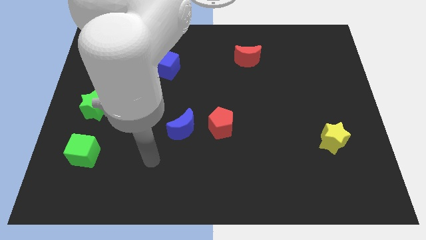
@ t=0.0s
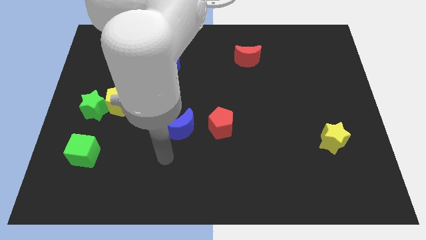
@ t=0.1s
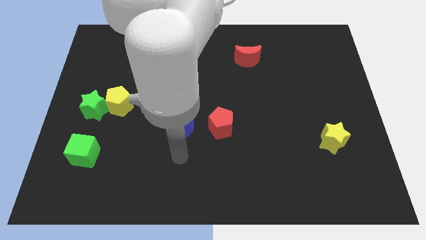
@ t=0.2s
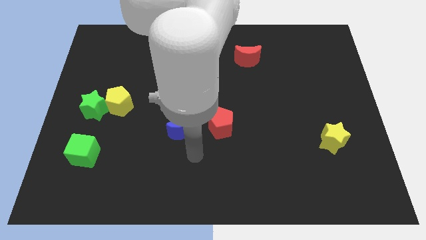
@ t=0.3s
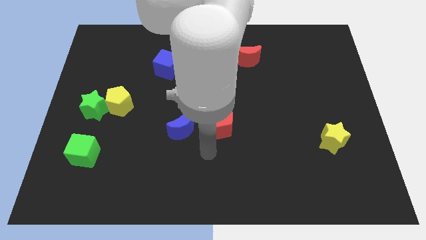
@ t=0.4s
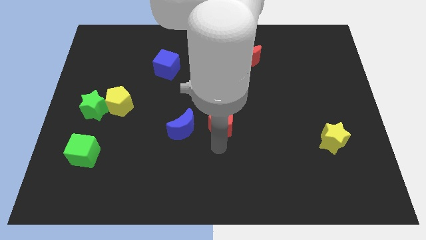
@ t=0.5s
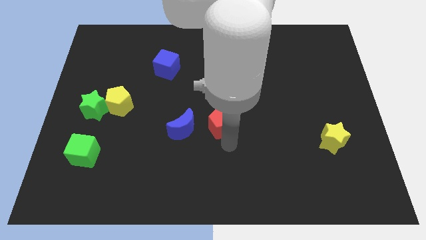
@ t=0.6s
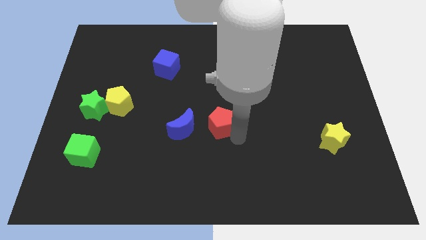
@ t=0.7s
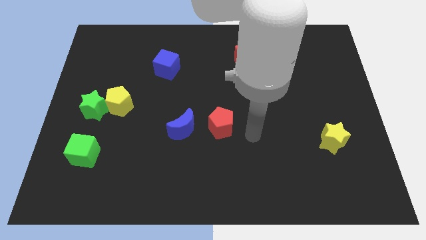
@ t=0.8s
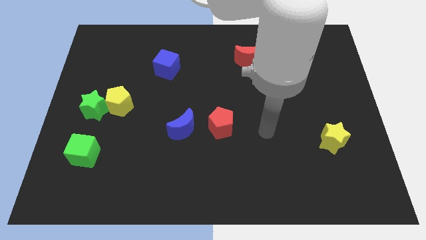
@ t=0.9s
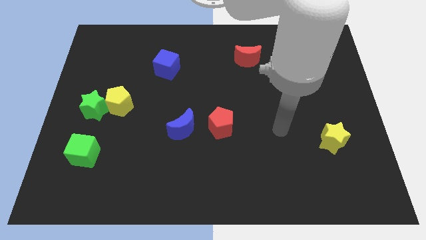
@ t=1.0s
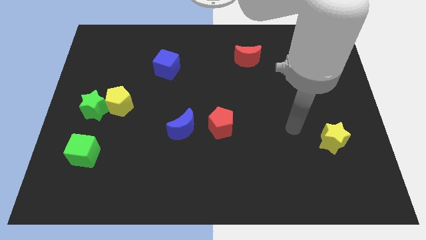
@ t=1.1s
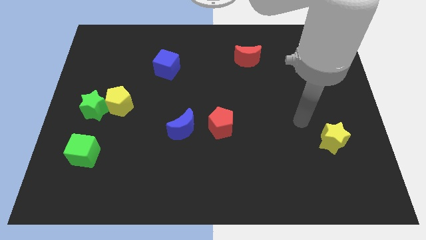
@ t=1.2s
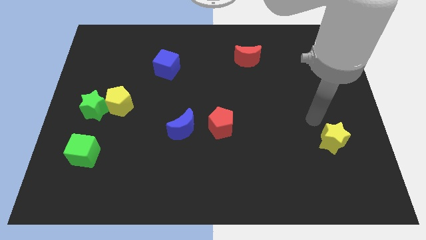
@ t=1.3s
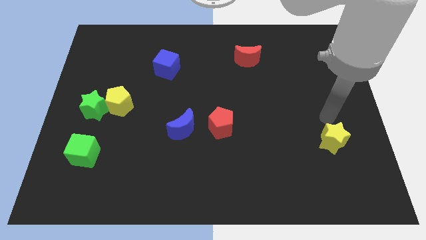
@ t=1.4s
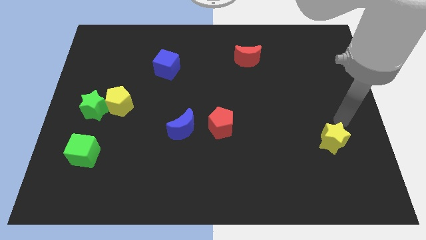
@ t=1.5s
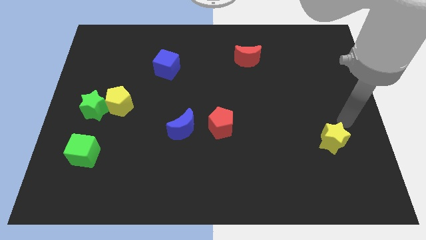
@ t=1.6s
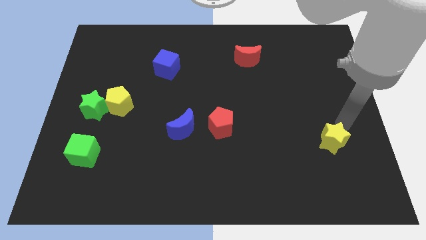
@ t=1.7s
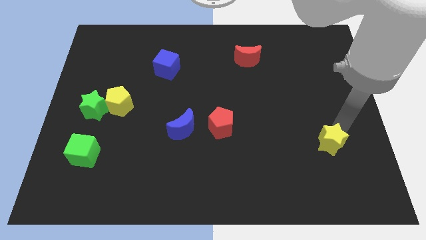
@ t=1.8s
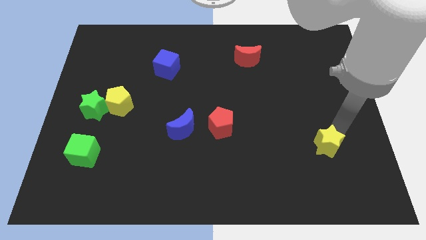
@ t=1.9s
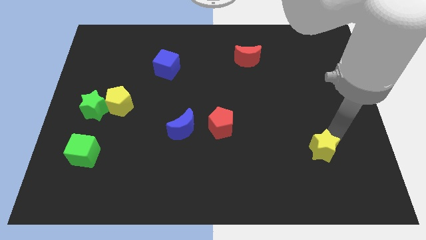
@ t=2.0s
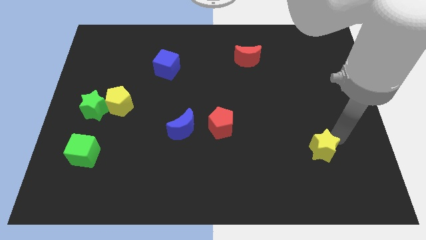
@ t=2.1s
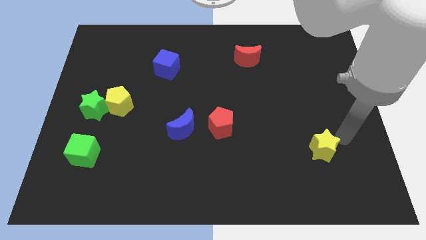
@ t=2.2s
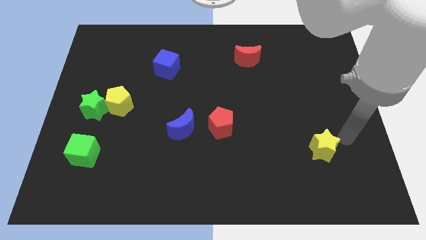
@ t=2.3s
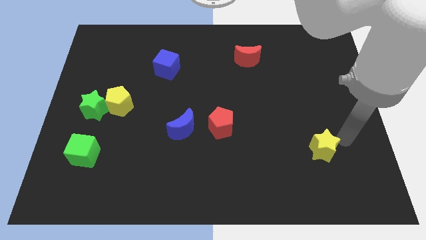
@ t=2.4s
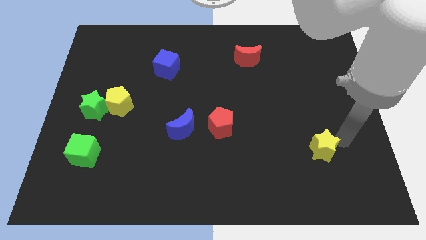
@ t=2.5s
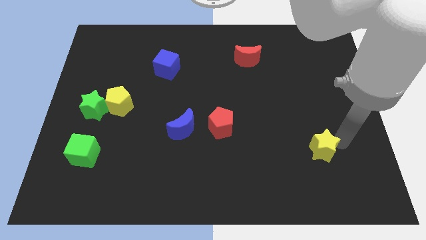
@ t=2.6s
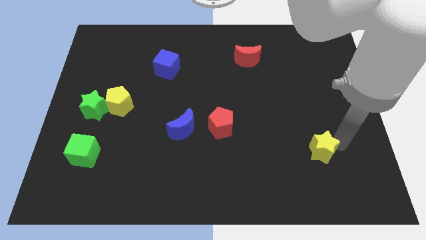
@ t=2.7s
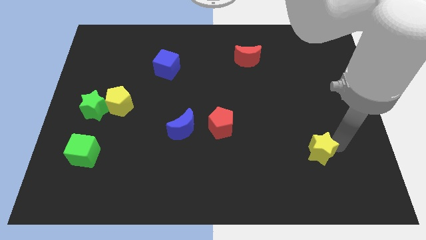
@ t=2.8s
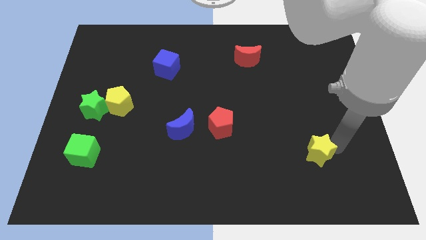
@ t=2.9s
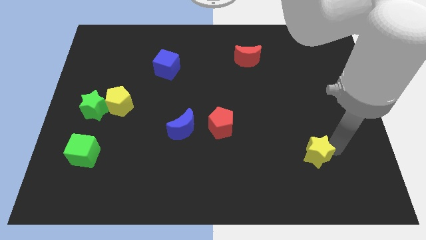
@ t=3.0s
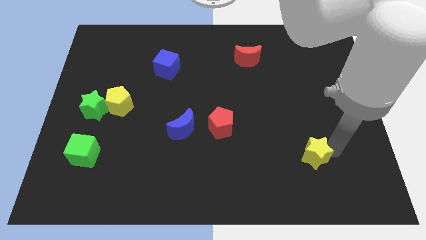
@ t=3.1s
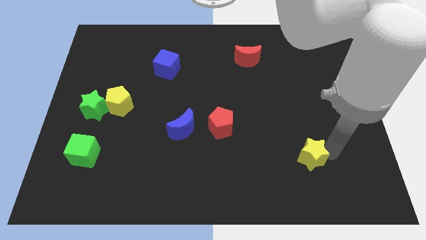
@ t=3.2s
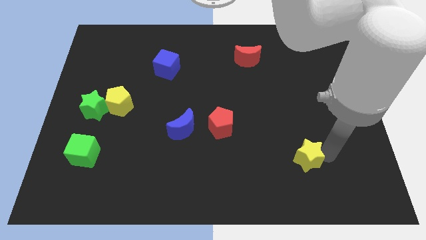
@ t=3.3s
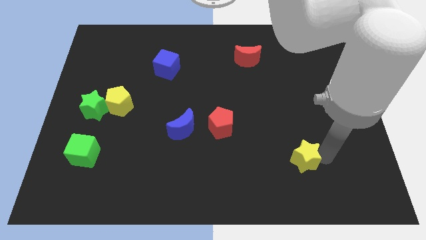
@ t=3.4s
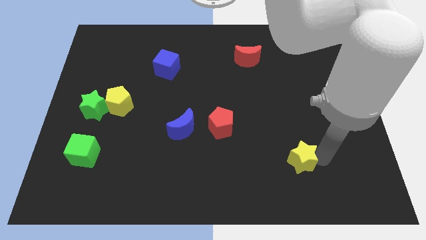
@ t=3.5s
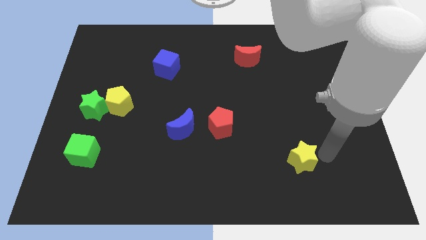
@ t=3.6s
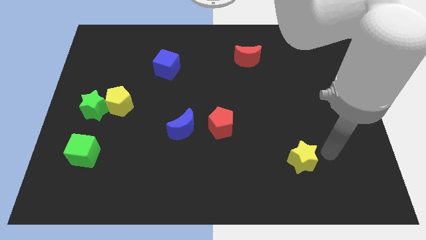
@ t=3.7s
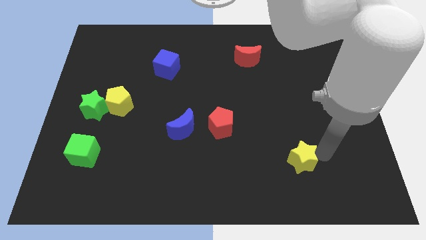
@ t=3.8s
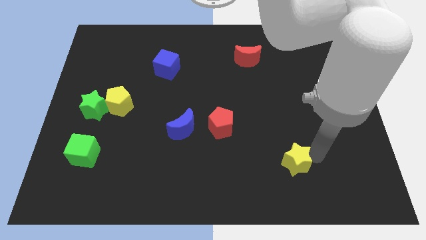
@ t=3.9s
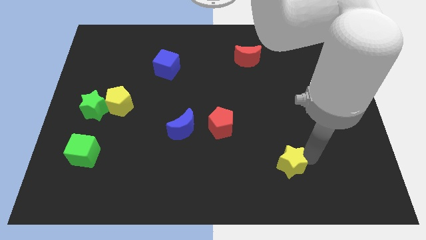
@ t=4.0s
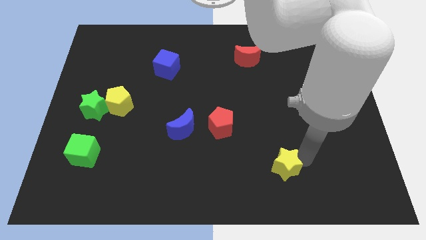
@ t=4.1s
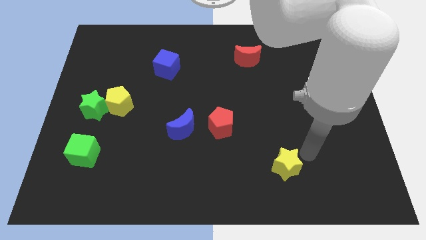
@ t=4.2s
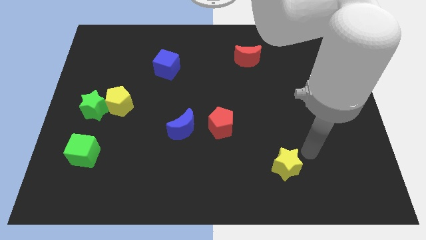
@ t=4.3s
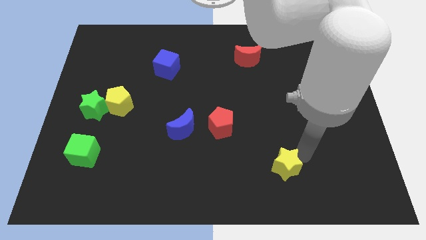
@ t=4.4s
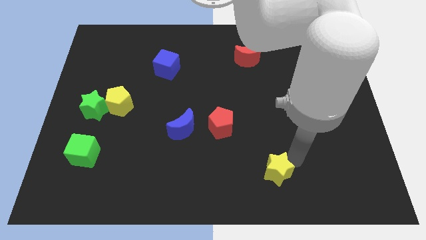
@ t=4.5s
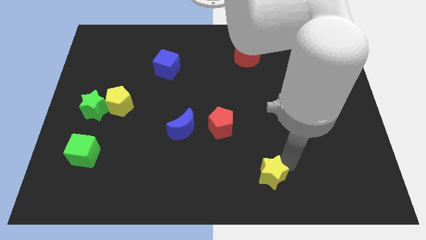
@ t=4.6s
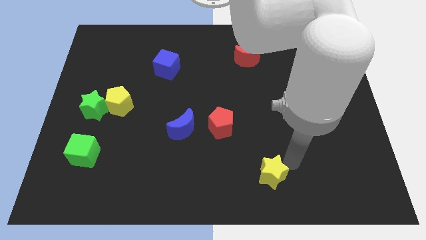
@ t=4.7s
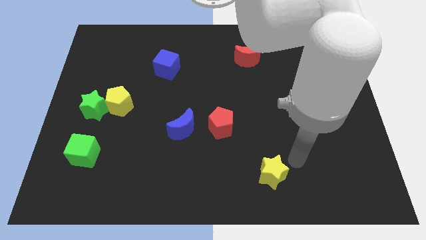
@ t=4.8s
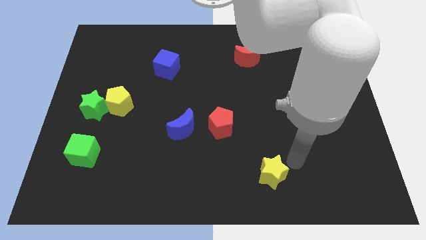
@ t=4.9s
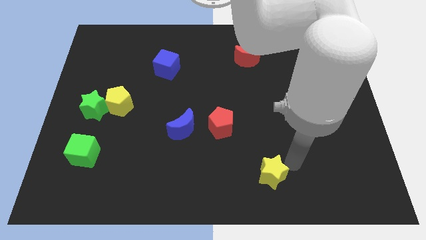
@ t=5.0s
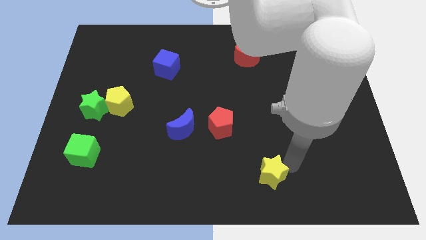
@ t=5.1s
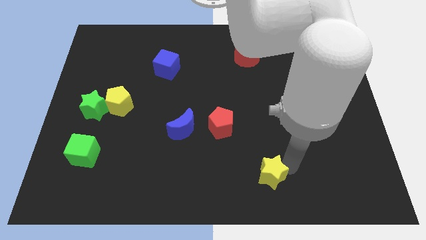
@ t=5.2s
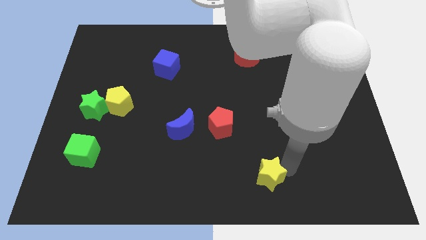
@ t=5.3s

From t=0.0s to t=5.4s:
put the yellow star to the bottom
